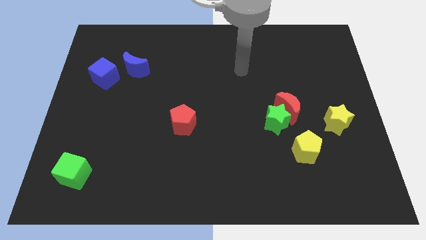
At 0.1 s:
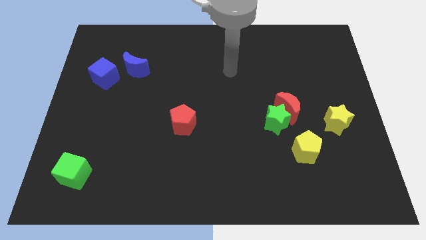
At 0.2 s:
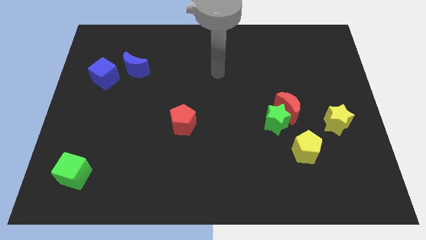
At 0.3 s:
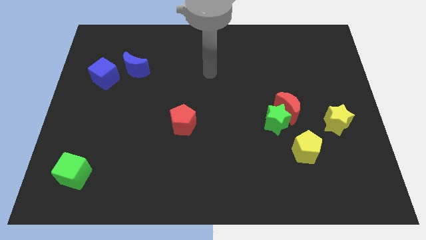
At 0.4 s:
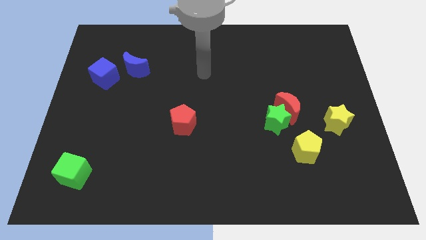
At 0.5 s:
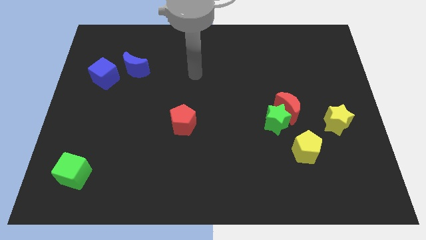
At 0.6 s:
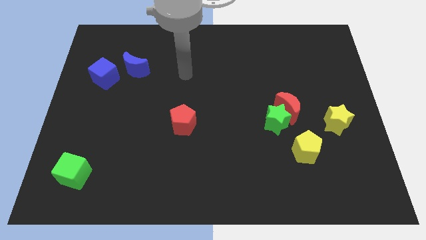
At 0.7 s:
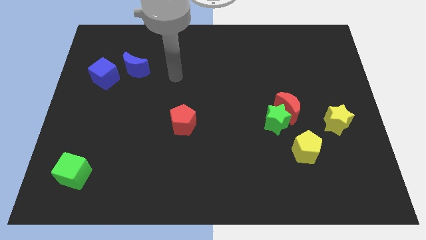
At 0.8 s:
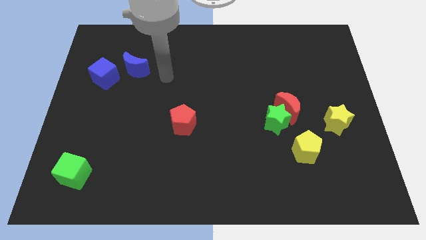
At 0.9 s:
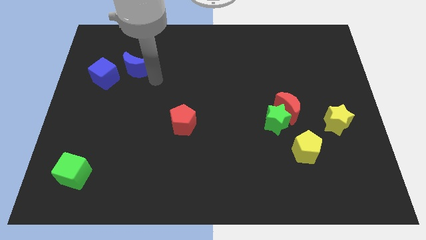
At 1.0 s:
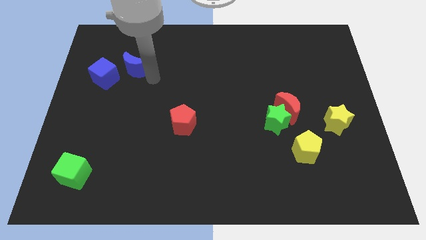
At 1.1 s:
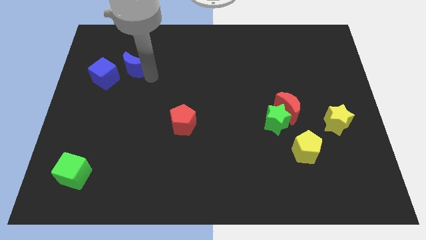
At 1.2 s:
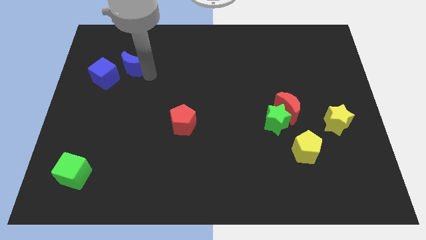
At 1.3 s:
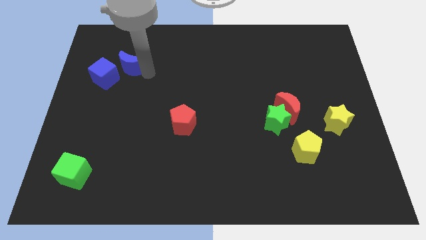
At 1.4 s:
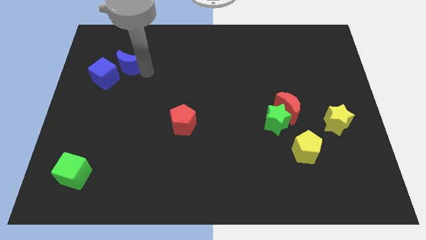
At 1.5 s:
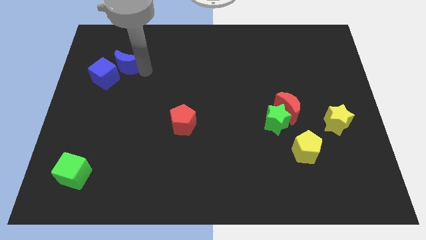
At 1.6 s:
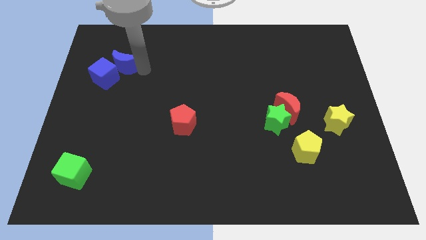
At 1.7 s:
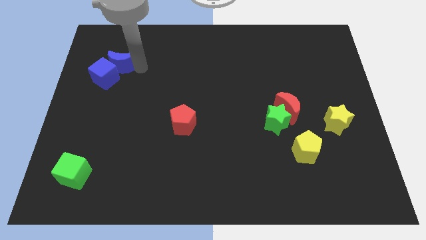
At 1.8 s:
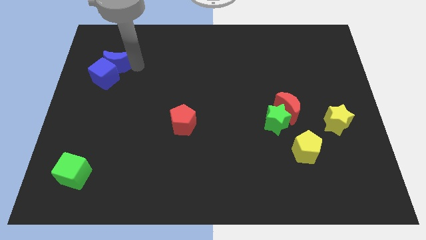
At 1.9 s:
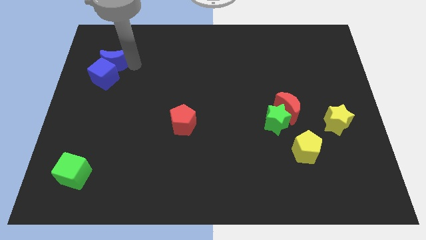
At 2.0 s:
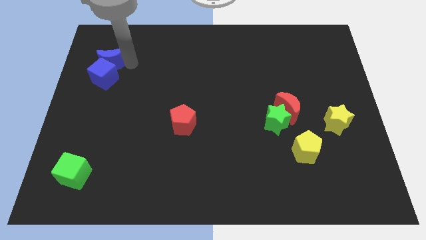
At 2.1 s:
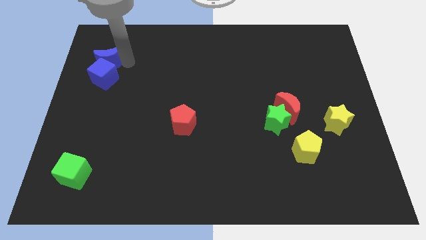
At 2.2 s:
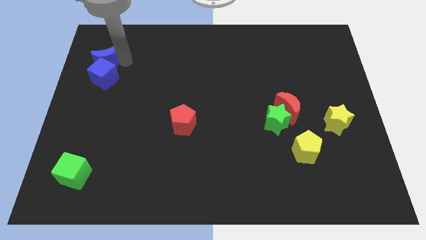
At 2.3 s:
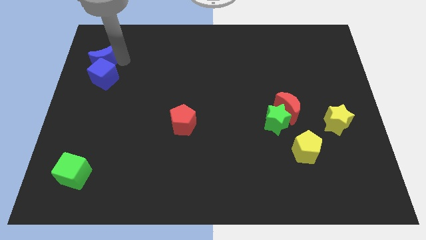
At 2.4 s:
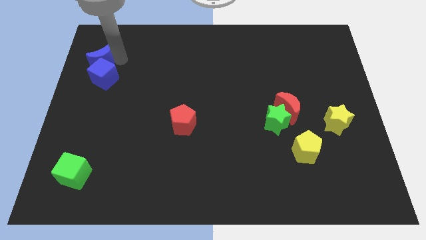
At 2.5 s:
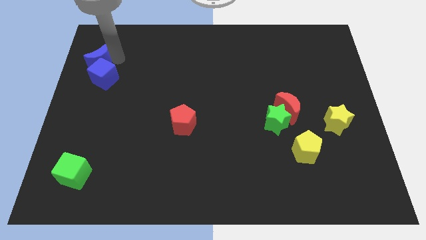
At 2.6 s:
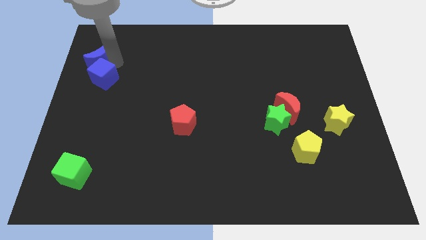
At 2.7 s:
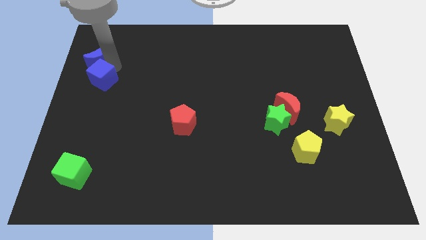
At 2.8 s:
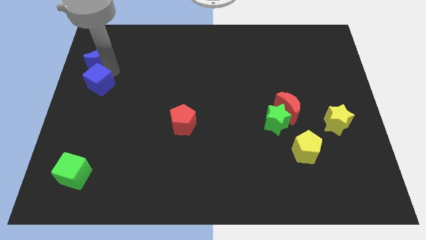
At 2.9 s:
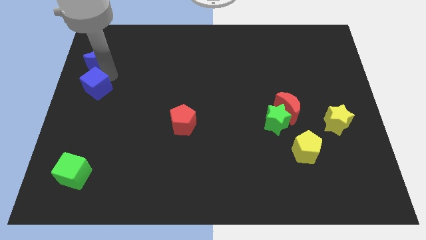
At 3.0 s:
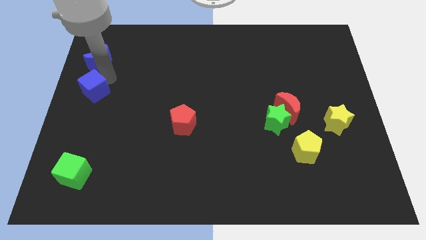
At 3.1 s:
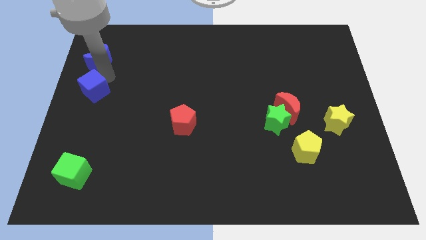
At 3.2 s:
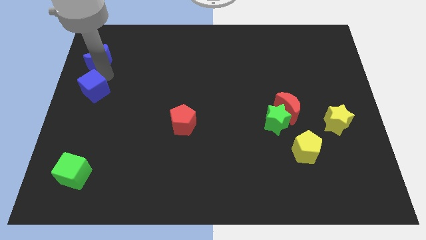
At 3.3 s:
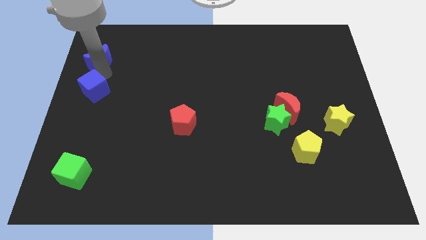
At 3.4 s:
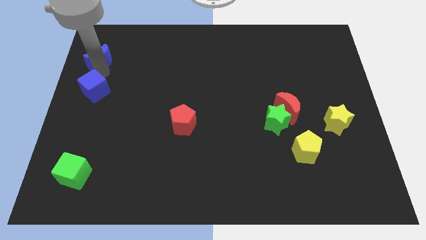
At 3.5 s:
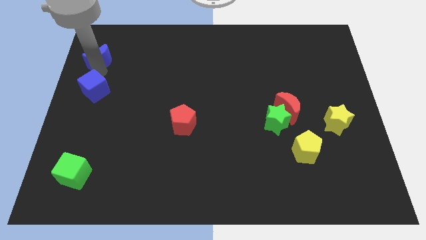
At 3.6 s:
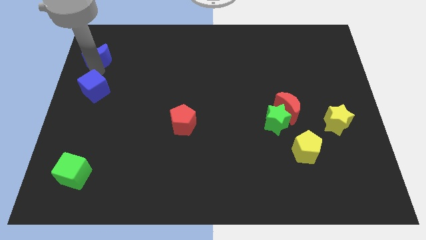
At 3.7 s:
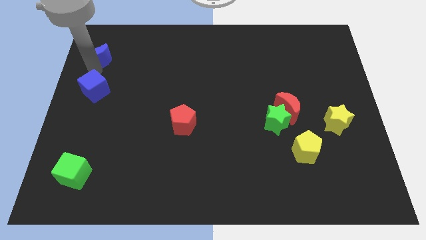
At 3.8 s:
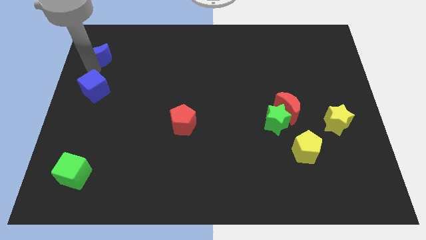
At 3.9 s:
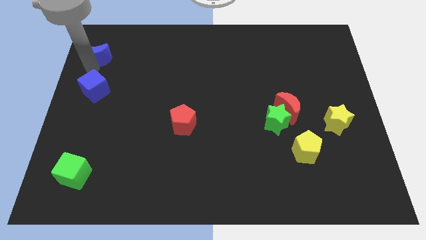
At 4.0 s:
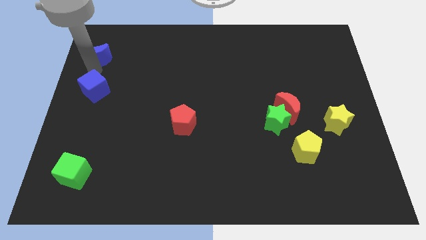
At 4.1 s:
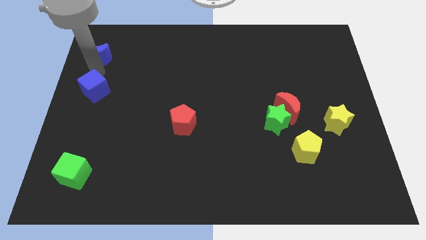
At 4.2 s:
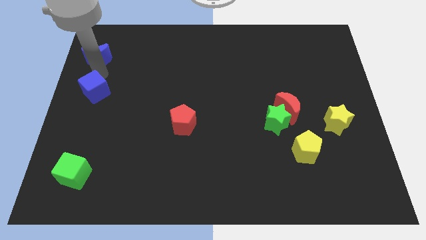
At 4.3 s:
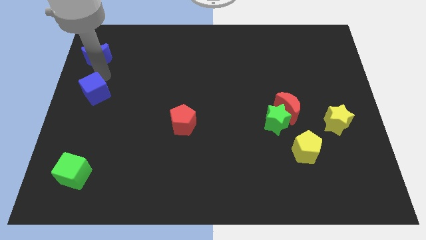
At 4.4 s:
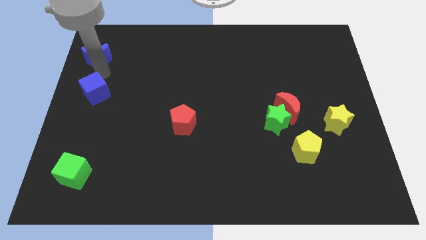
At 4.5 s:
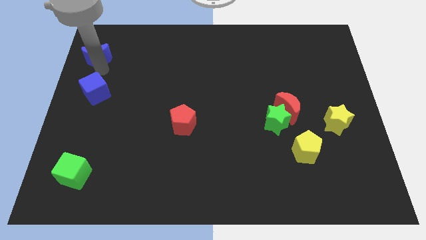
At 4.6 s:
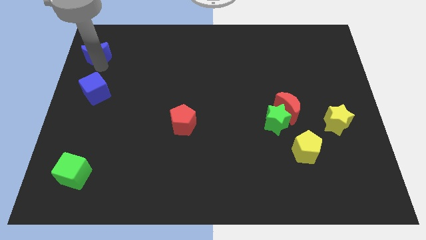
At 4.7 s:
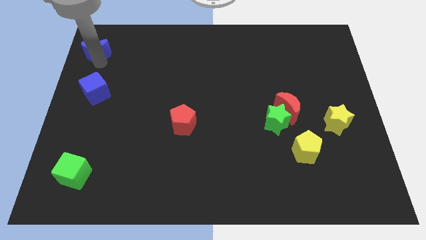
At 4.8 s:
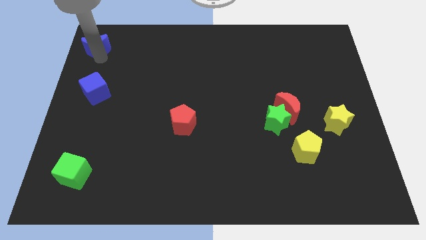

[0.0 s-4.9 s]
slide the blue moon to the top left corner

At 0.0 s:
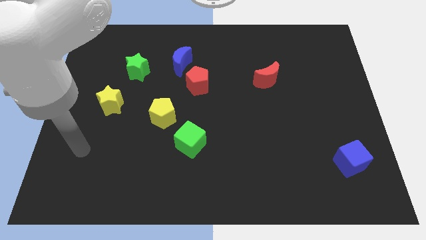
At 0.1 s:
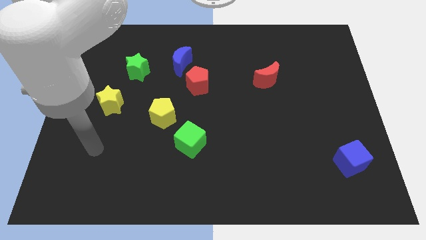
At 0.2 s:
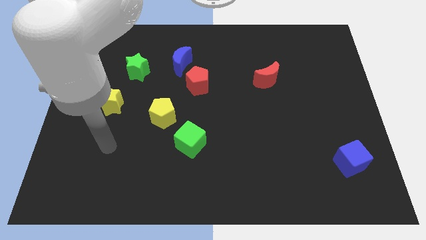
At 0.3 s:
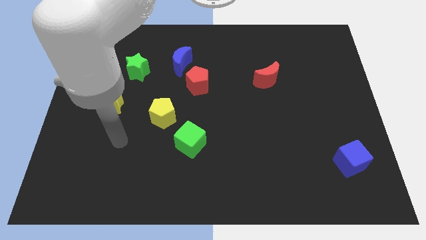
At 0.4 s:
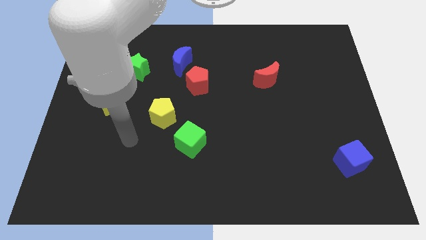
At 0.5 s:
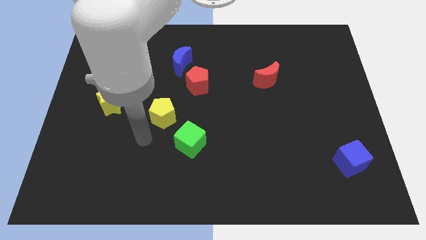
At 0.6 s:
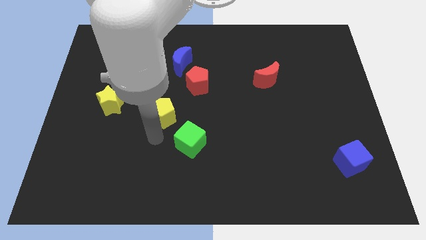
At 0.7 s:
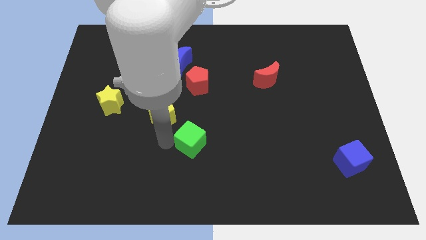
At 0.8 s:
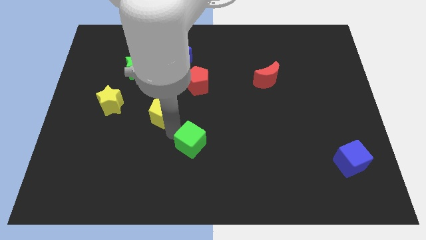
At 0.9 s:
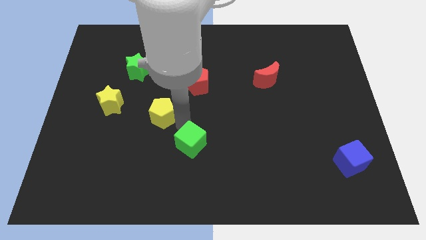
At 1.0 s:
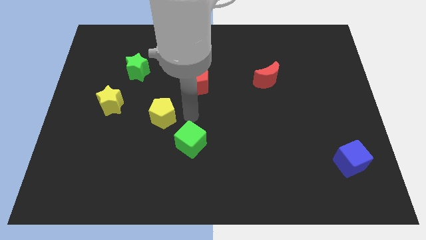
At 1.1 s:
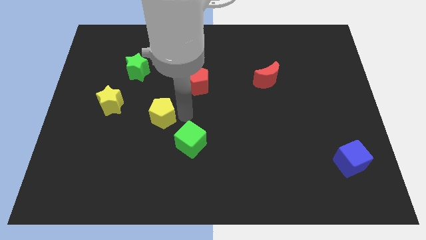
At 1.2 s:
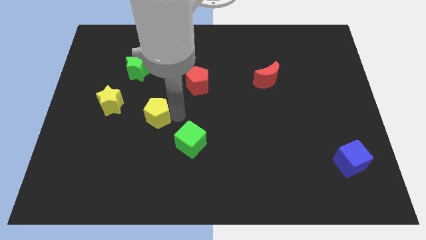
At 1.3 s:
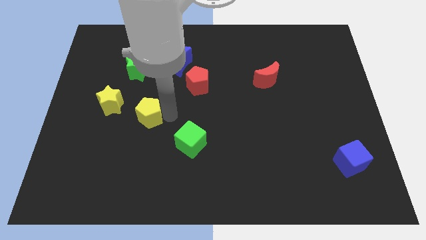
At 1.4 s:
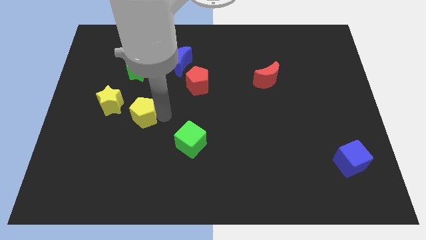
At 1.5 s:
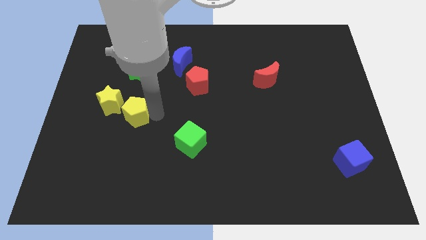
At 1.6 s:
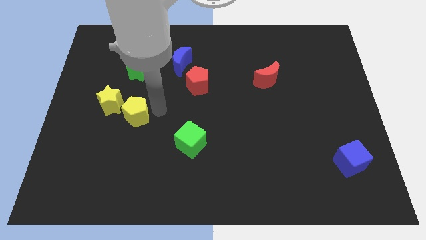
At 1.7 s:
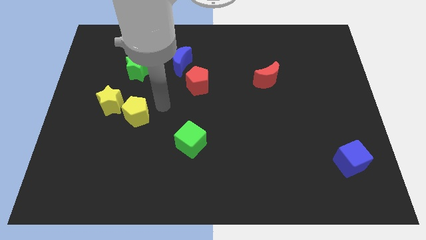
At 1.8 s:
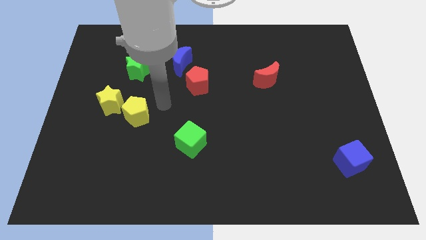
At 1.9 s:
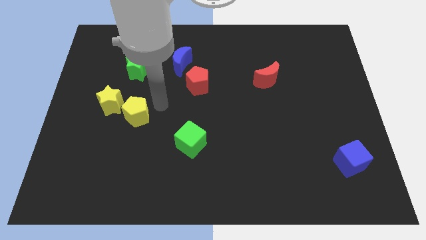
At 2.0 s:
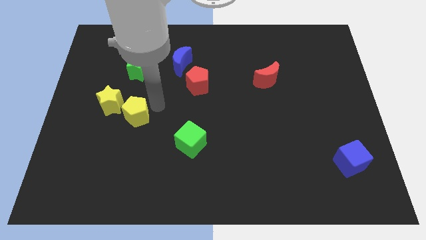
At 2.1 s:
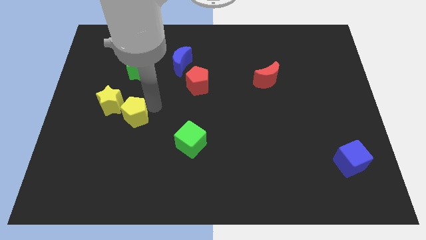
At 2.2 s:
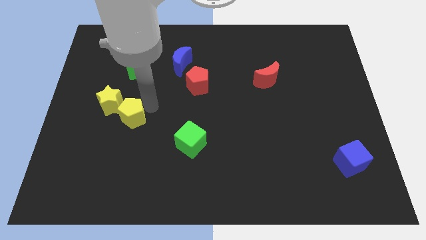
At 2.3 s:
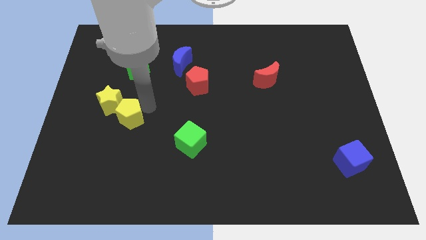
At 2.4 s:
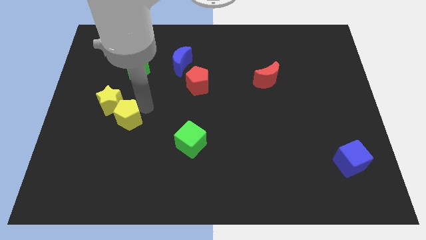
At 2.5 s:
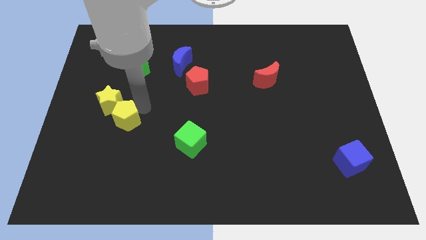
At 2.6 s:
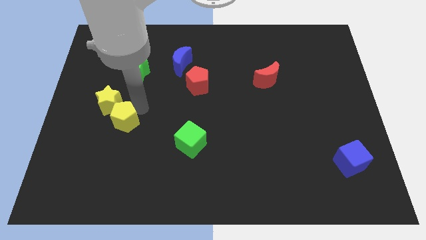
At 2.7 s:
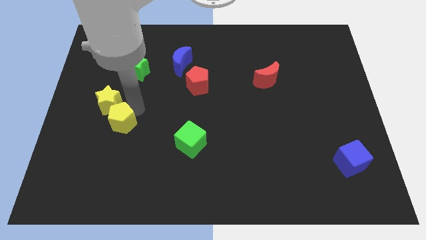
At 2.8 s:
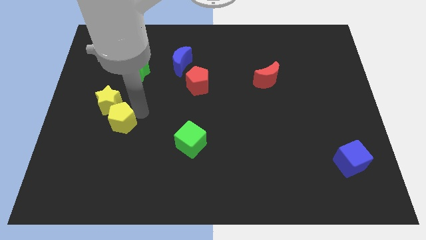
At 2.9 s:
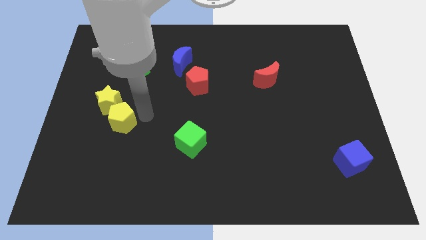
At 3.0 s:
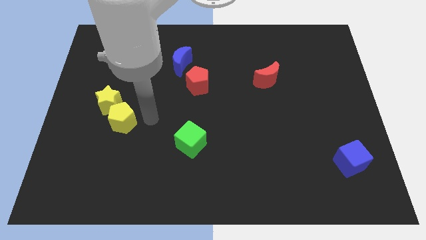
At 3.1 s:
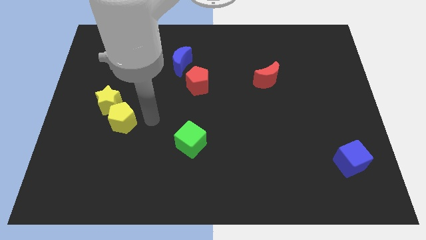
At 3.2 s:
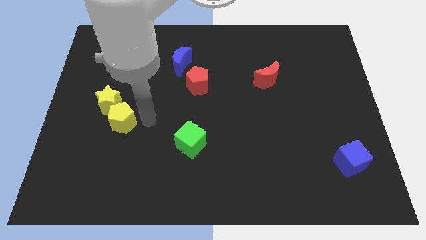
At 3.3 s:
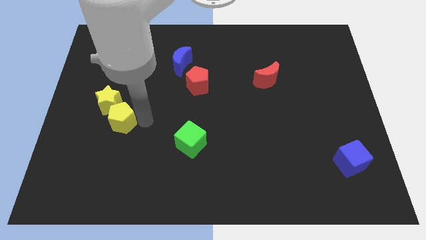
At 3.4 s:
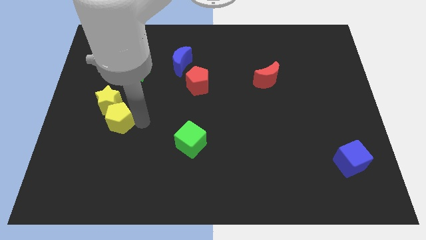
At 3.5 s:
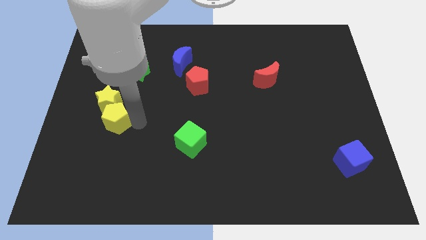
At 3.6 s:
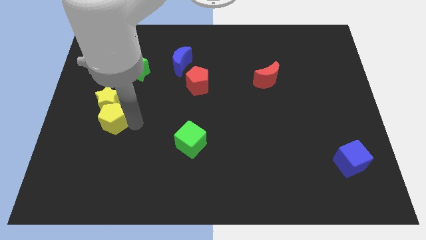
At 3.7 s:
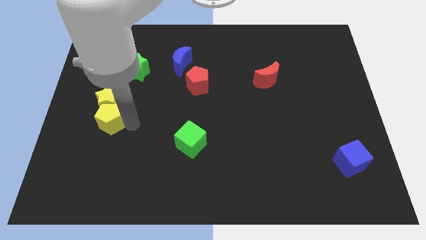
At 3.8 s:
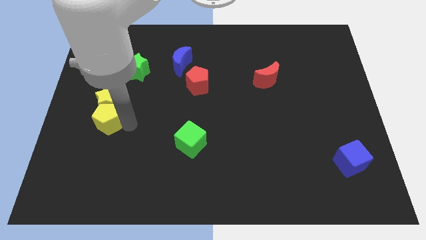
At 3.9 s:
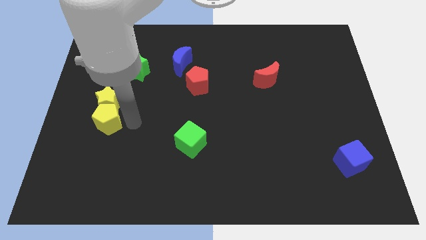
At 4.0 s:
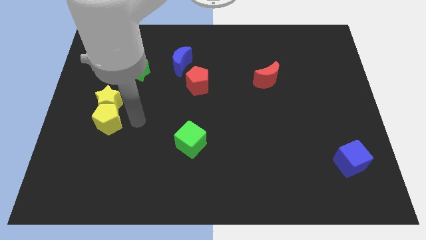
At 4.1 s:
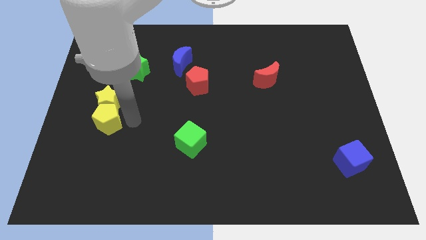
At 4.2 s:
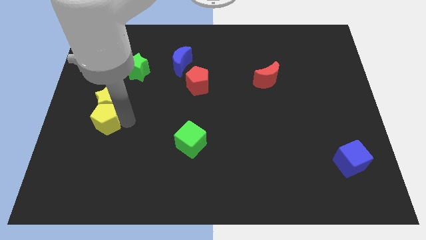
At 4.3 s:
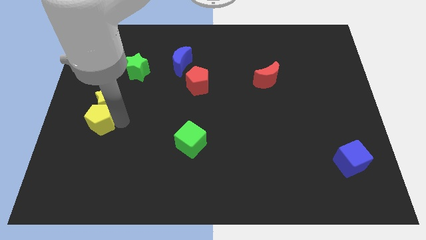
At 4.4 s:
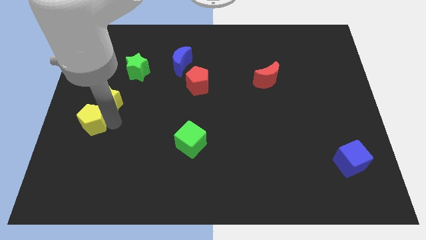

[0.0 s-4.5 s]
put the yellow pentagon to the left side of the board
